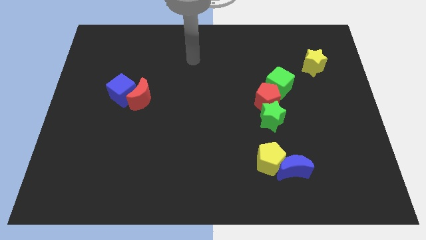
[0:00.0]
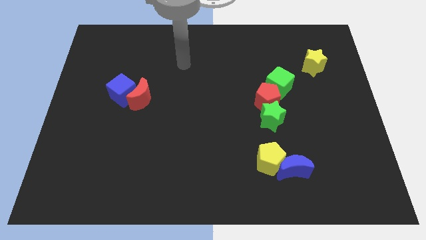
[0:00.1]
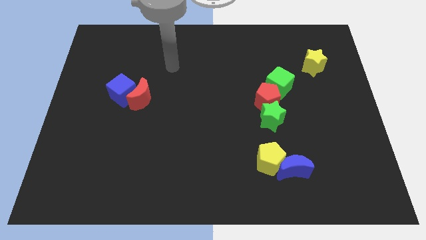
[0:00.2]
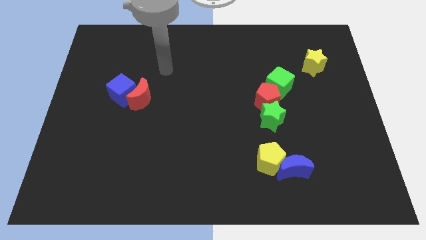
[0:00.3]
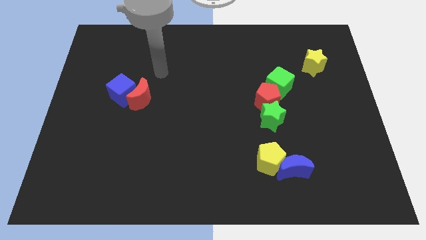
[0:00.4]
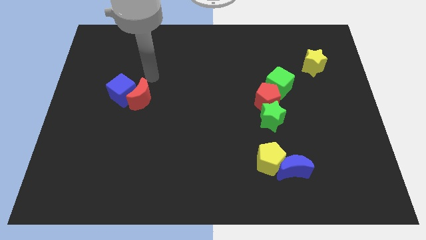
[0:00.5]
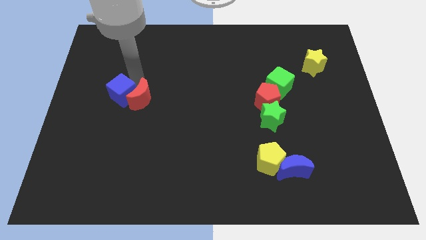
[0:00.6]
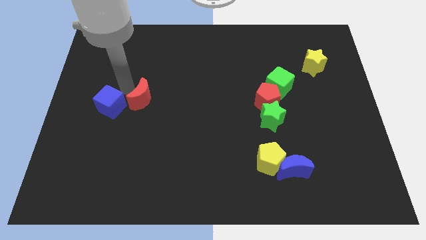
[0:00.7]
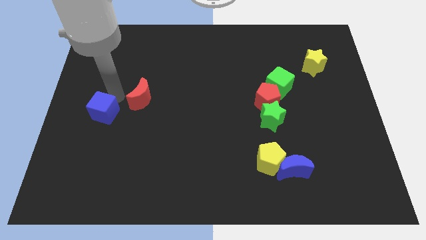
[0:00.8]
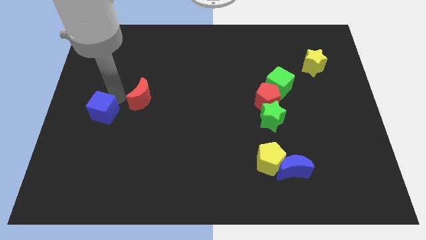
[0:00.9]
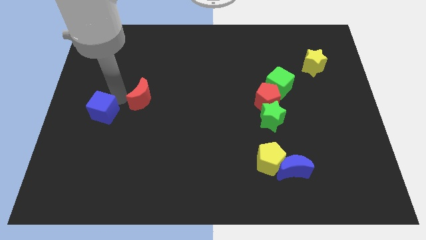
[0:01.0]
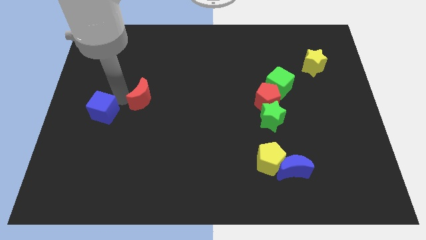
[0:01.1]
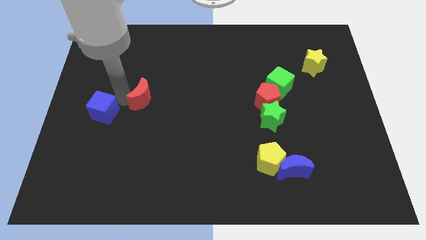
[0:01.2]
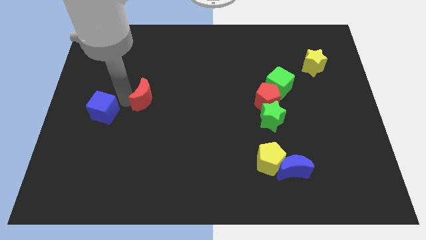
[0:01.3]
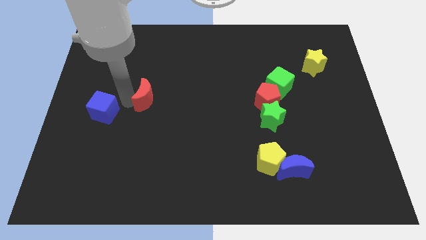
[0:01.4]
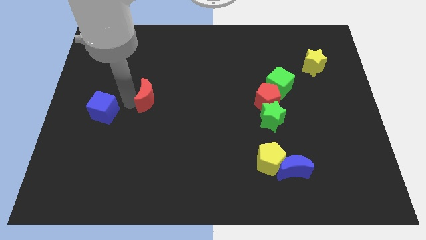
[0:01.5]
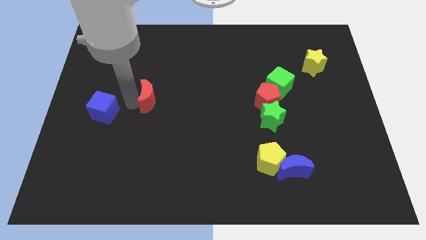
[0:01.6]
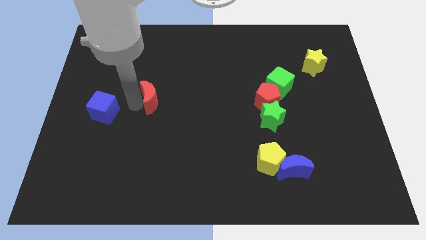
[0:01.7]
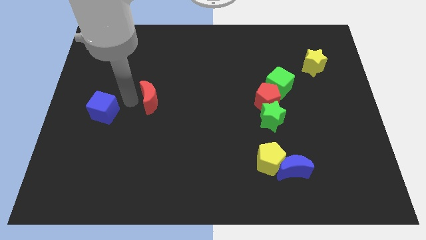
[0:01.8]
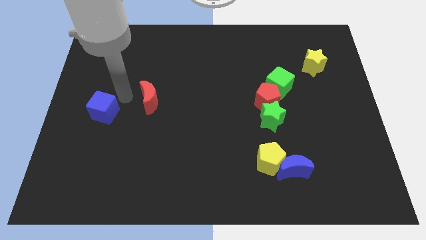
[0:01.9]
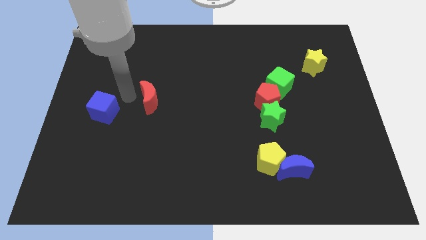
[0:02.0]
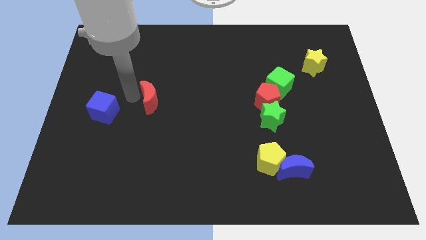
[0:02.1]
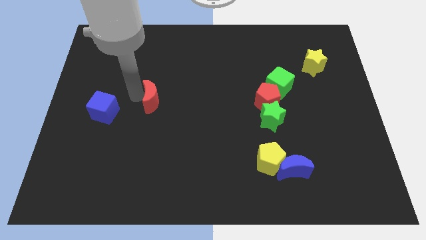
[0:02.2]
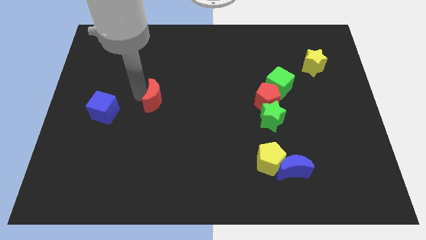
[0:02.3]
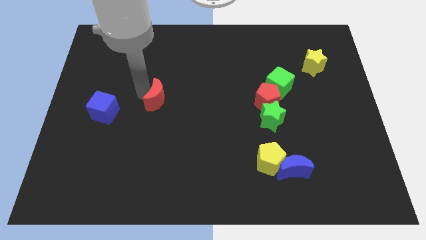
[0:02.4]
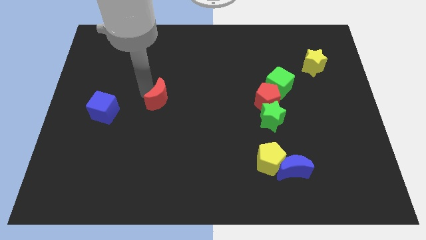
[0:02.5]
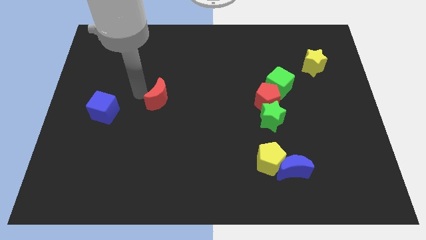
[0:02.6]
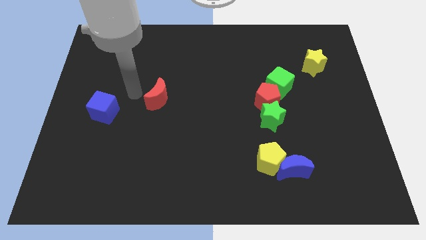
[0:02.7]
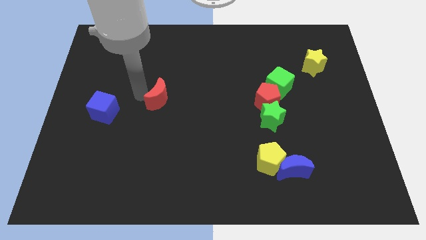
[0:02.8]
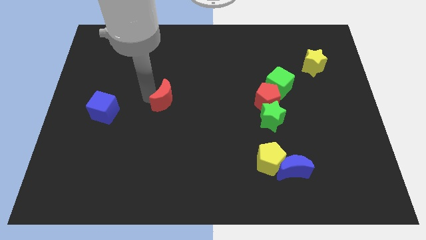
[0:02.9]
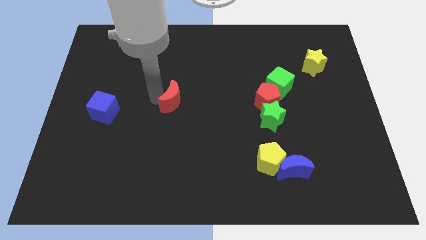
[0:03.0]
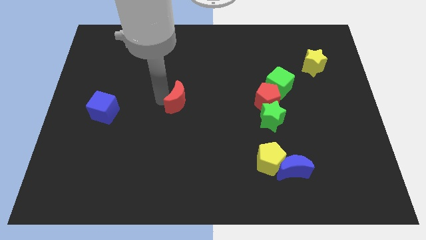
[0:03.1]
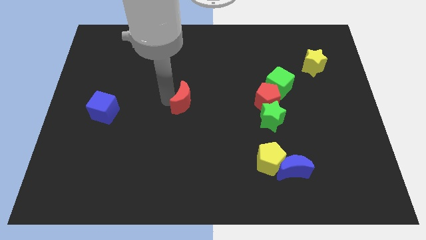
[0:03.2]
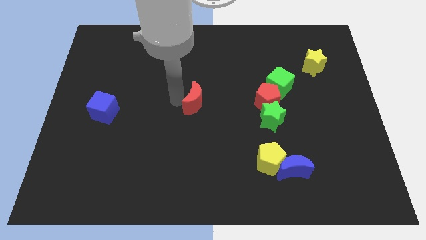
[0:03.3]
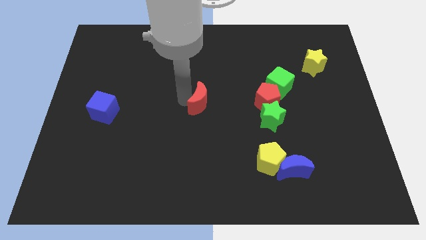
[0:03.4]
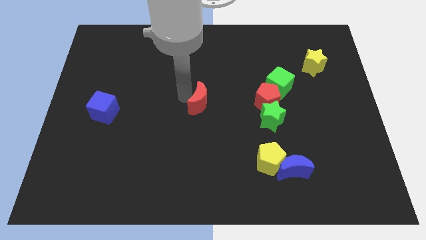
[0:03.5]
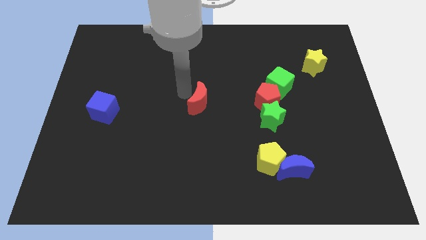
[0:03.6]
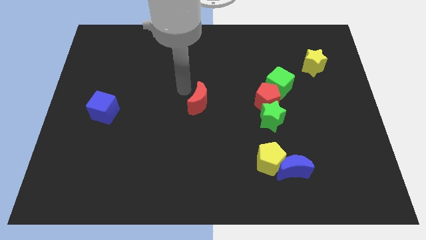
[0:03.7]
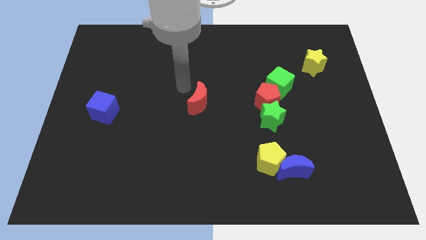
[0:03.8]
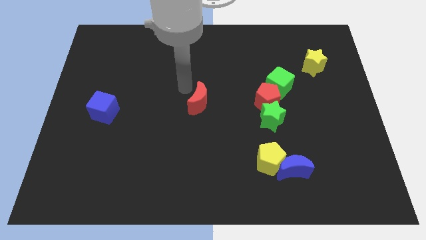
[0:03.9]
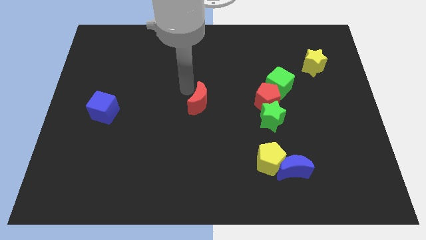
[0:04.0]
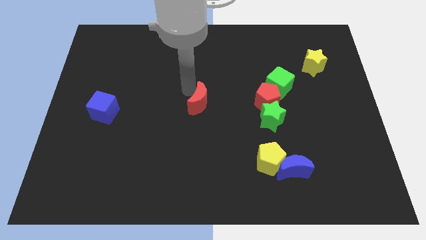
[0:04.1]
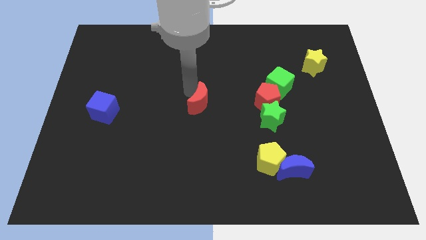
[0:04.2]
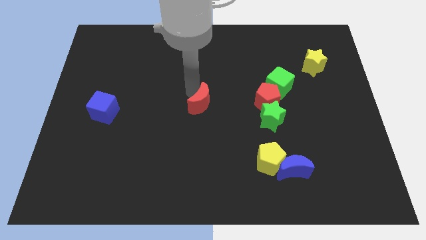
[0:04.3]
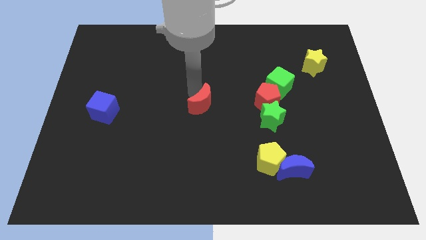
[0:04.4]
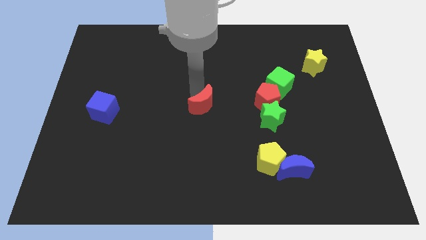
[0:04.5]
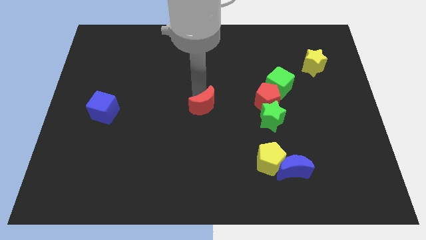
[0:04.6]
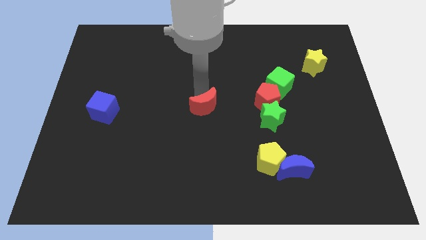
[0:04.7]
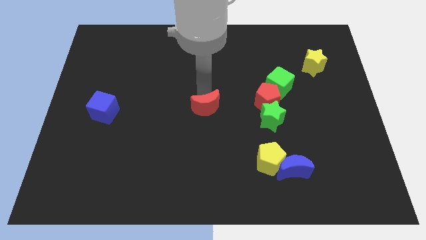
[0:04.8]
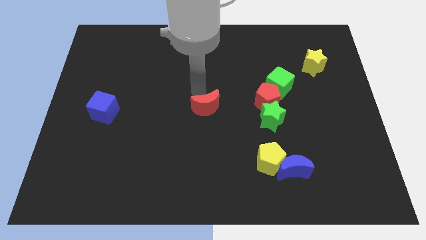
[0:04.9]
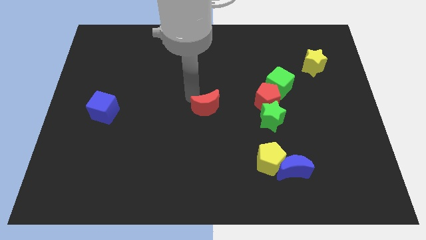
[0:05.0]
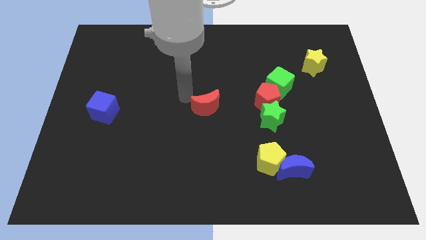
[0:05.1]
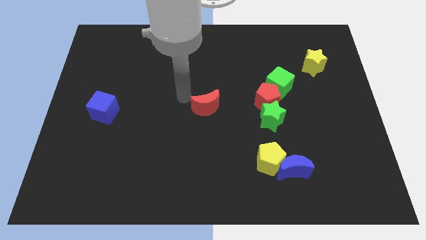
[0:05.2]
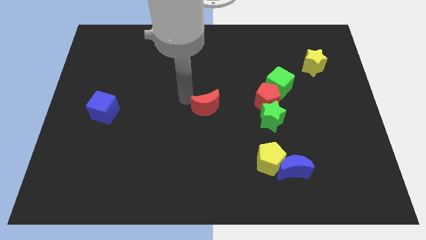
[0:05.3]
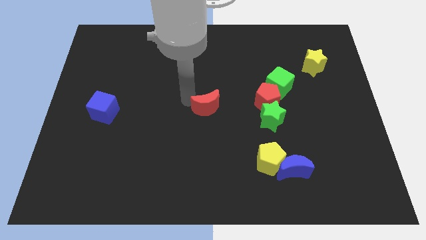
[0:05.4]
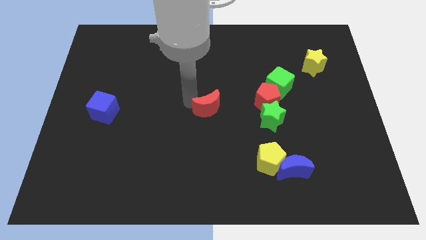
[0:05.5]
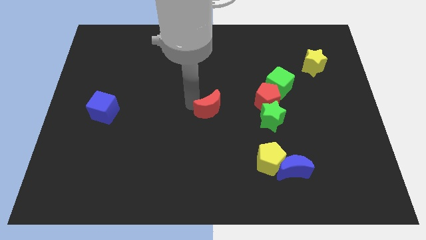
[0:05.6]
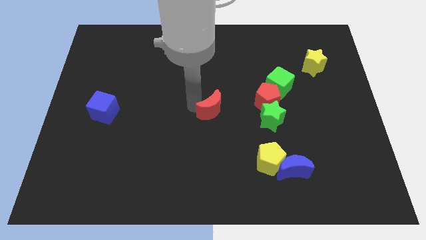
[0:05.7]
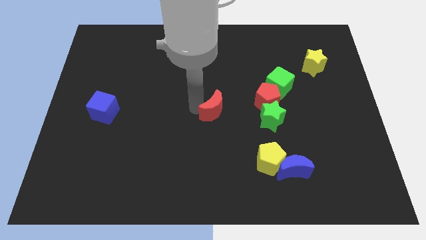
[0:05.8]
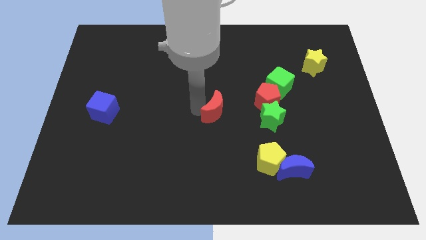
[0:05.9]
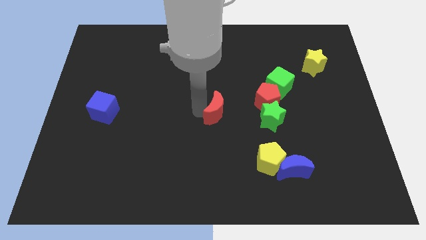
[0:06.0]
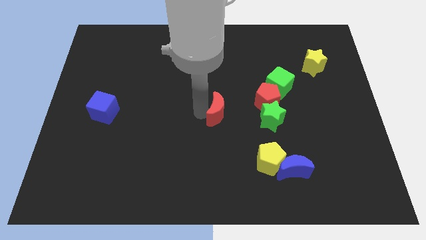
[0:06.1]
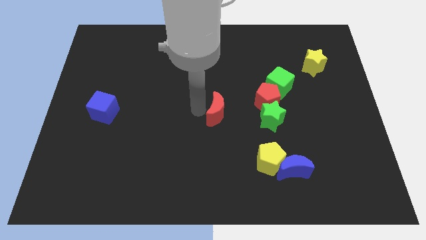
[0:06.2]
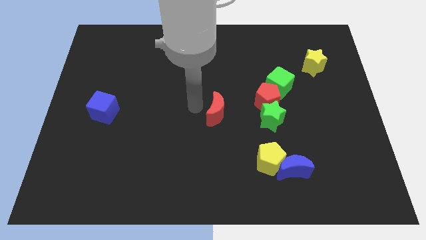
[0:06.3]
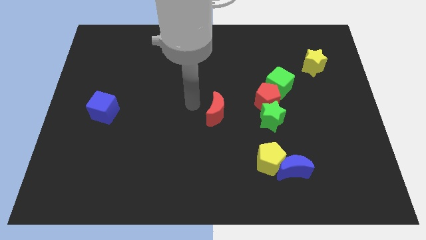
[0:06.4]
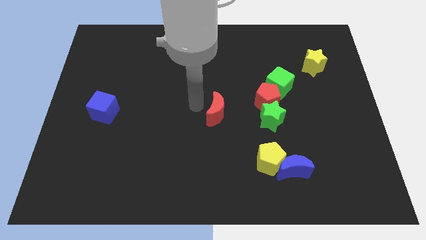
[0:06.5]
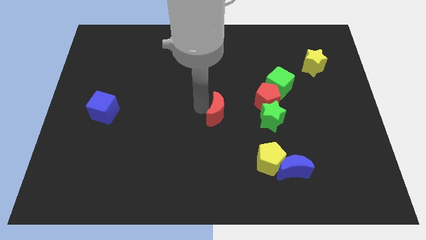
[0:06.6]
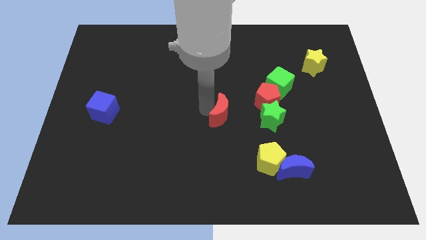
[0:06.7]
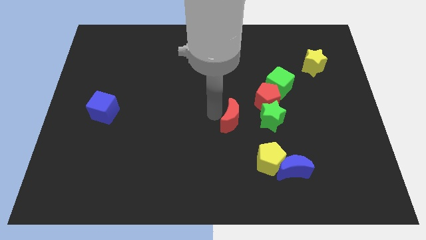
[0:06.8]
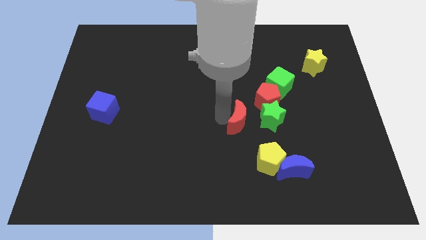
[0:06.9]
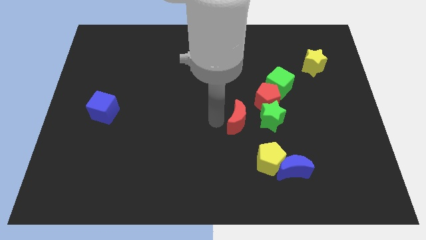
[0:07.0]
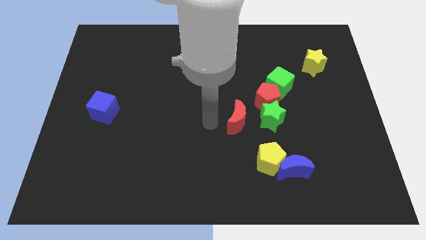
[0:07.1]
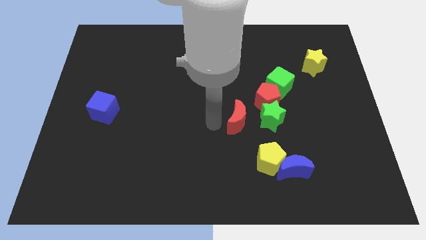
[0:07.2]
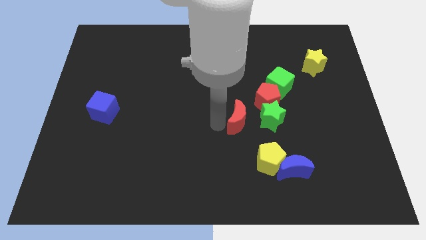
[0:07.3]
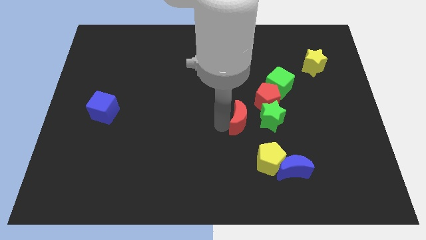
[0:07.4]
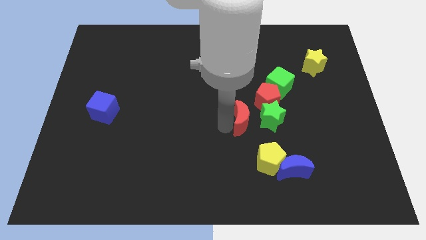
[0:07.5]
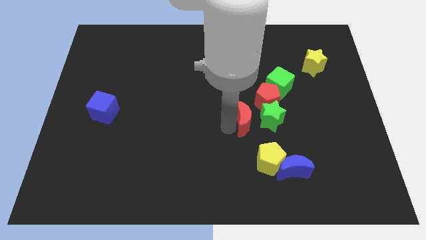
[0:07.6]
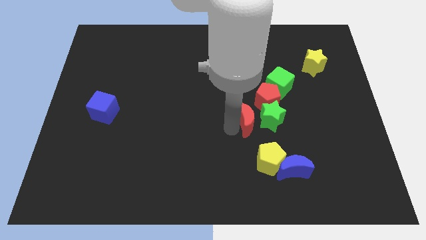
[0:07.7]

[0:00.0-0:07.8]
put the red moon to the green star

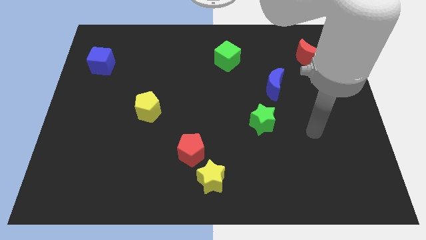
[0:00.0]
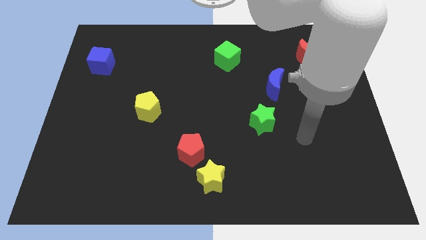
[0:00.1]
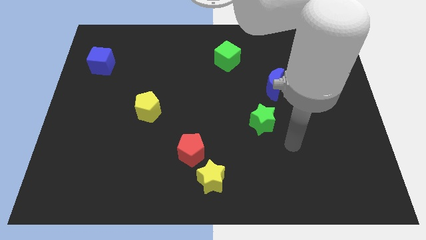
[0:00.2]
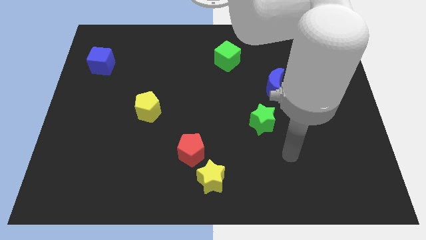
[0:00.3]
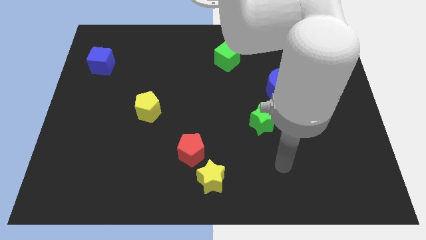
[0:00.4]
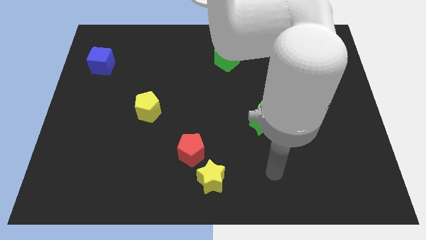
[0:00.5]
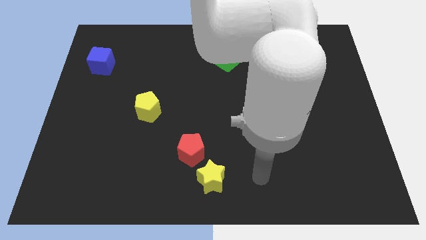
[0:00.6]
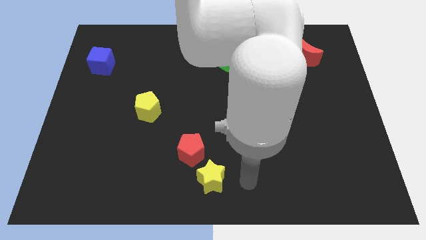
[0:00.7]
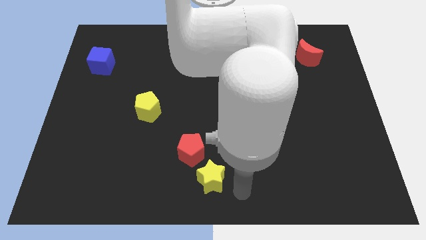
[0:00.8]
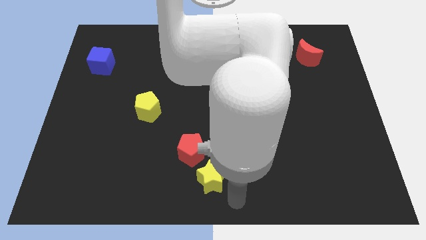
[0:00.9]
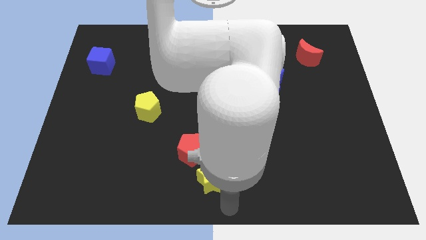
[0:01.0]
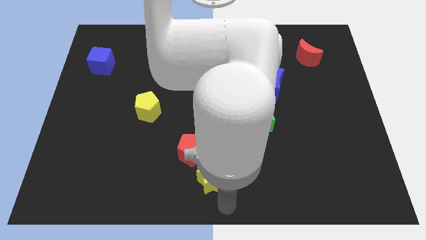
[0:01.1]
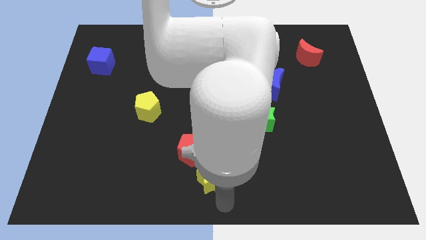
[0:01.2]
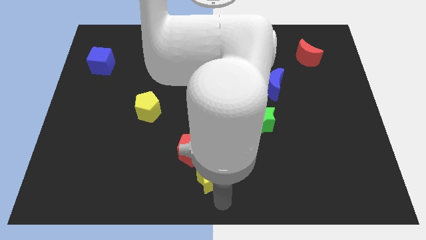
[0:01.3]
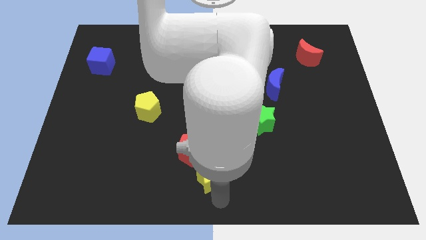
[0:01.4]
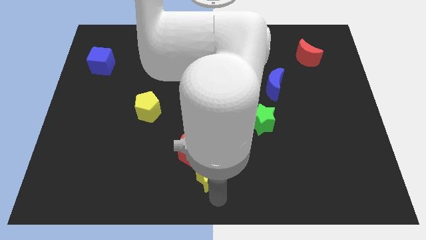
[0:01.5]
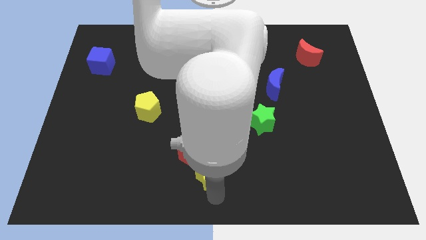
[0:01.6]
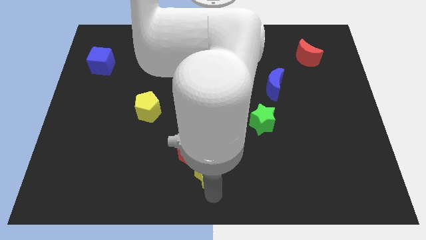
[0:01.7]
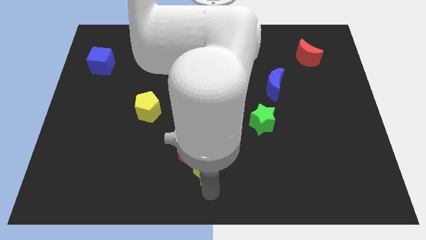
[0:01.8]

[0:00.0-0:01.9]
move the yellow star to the red pentagon
